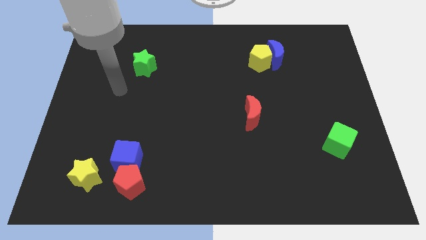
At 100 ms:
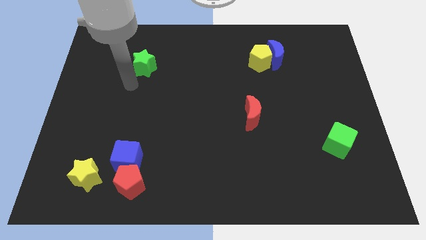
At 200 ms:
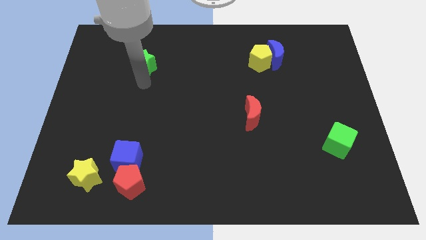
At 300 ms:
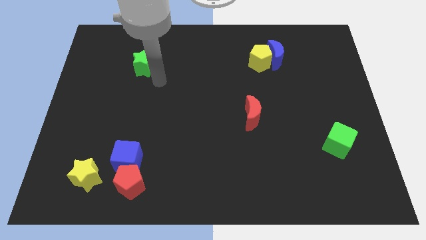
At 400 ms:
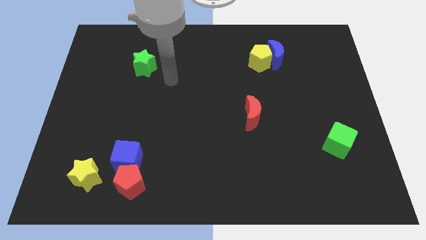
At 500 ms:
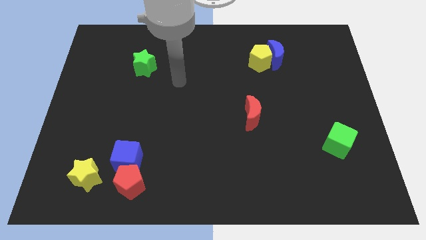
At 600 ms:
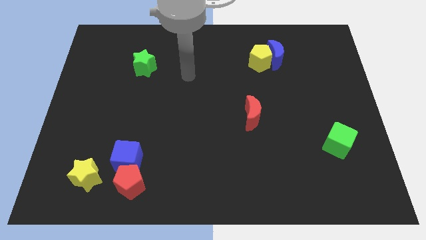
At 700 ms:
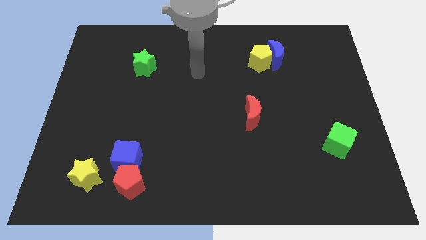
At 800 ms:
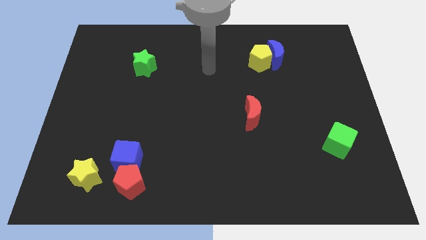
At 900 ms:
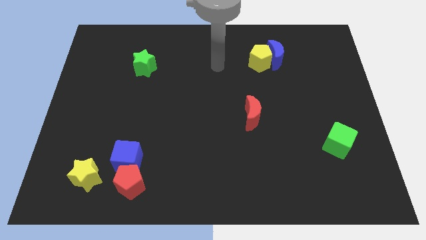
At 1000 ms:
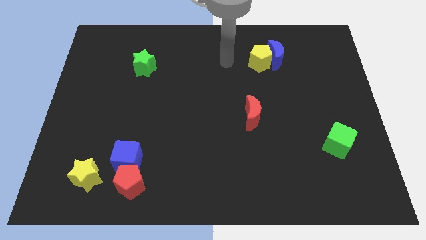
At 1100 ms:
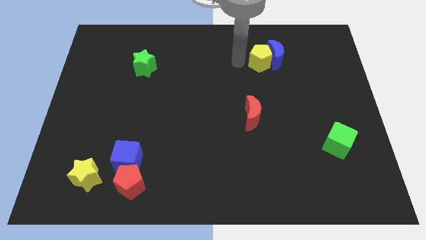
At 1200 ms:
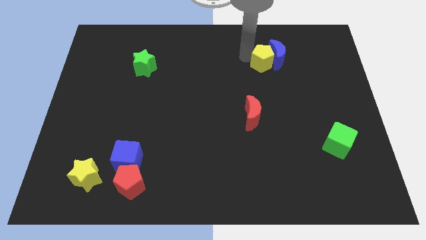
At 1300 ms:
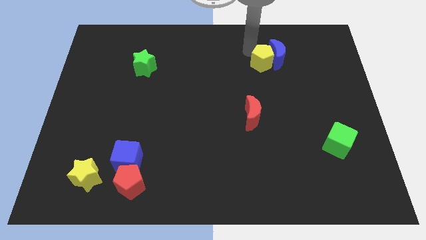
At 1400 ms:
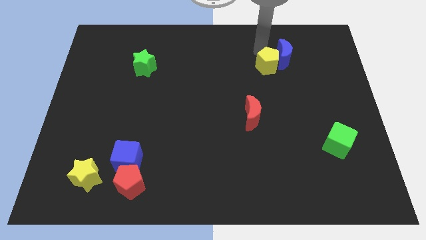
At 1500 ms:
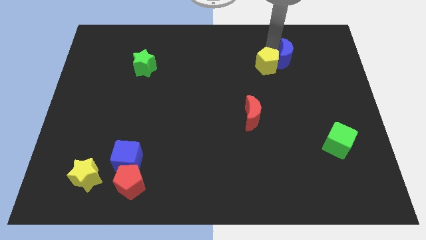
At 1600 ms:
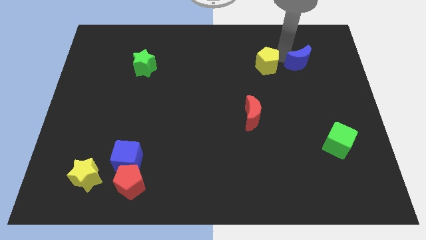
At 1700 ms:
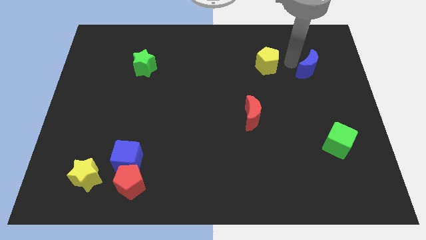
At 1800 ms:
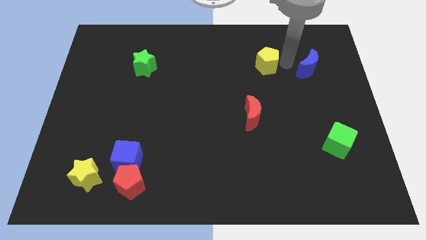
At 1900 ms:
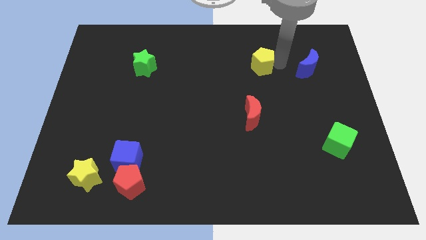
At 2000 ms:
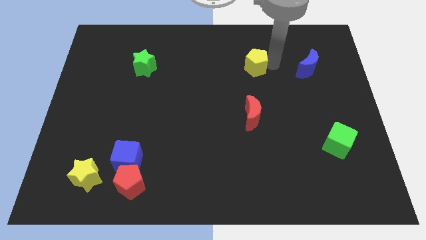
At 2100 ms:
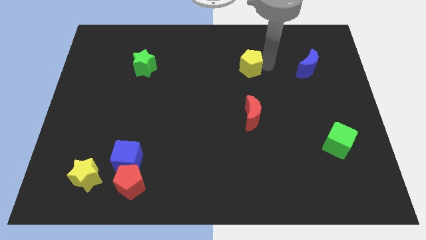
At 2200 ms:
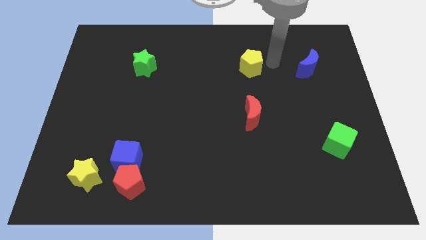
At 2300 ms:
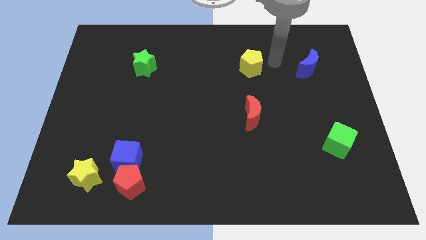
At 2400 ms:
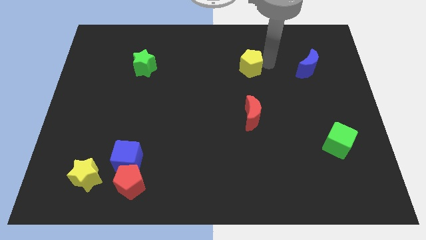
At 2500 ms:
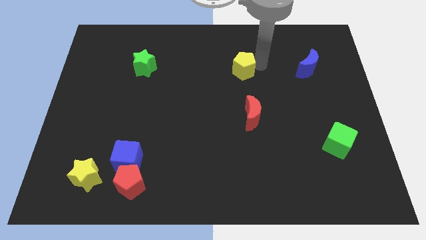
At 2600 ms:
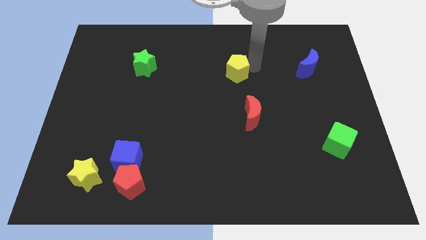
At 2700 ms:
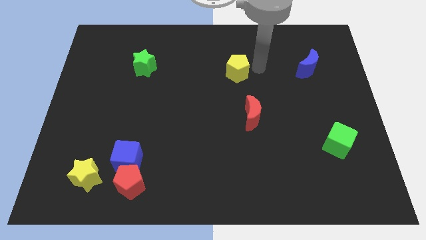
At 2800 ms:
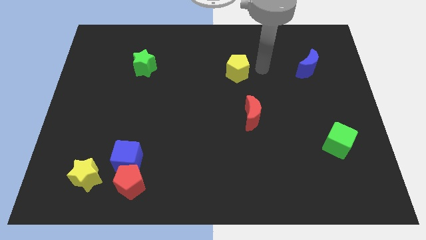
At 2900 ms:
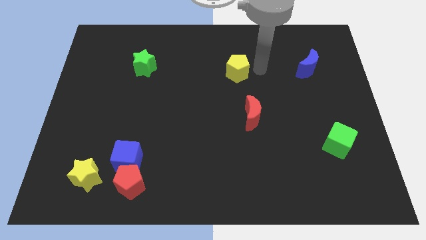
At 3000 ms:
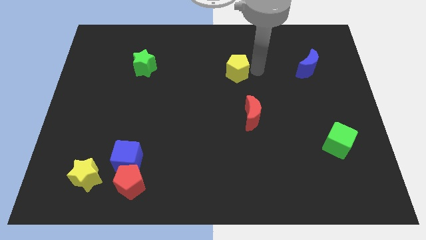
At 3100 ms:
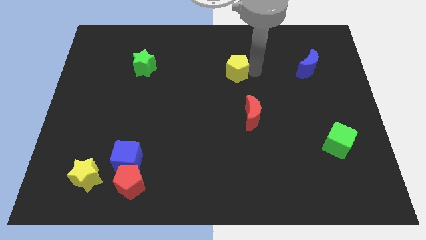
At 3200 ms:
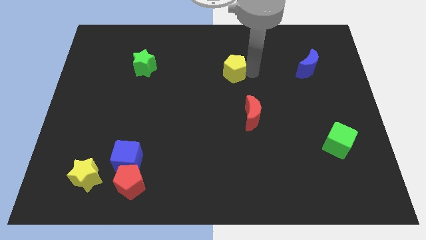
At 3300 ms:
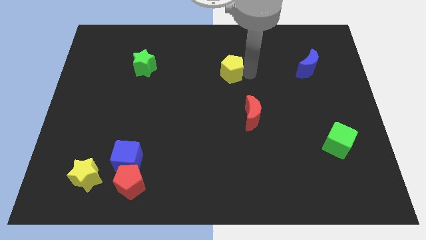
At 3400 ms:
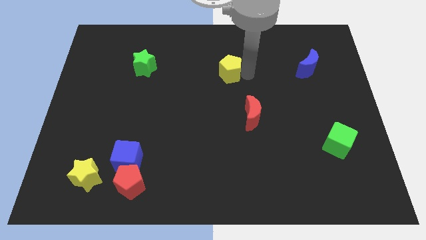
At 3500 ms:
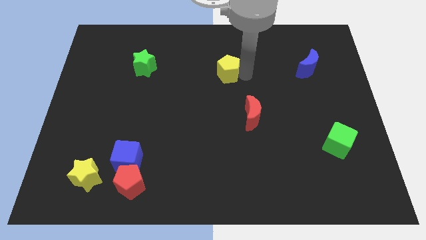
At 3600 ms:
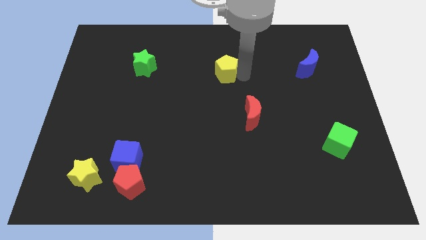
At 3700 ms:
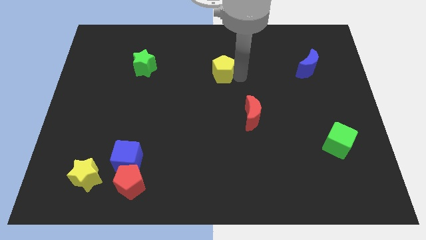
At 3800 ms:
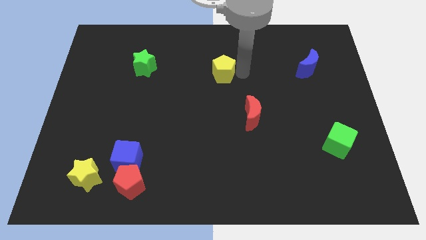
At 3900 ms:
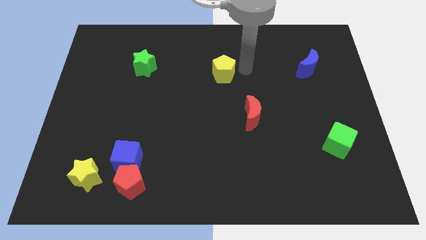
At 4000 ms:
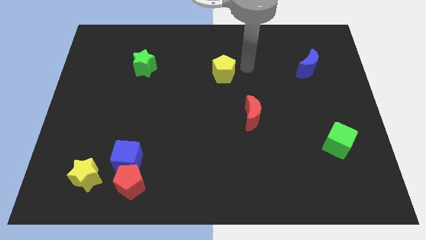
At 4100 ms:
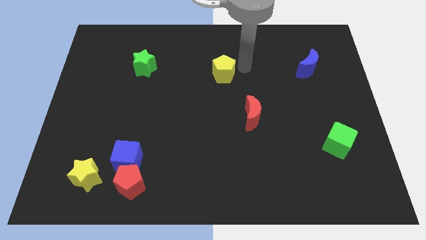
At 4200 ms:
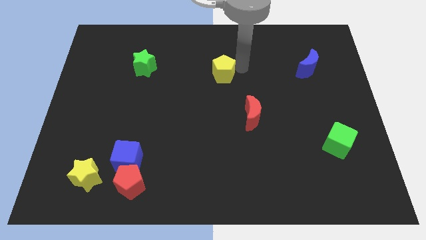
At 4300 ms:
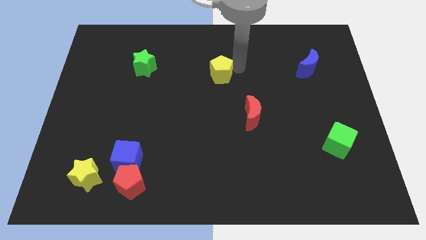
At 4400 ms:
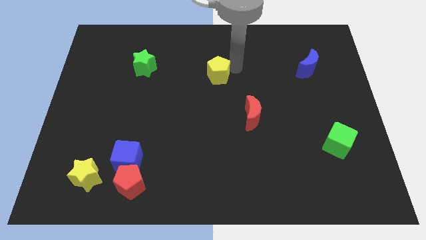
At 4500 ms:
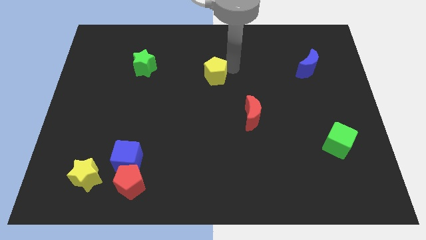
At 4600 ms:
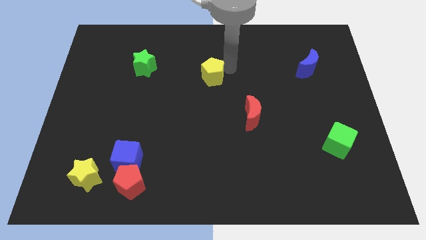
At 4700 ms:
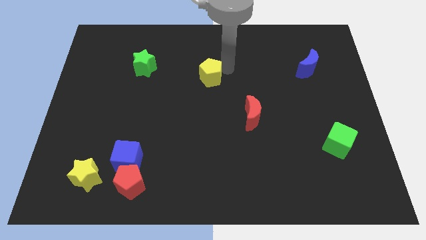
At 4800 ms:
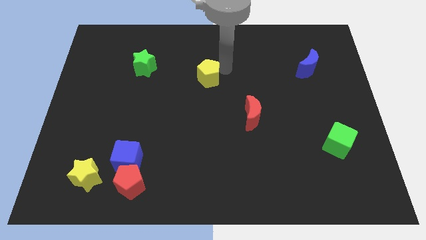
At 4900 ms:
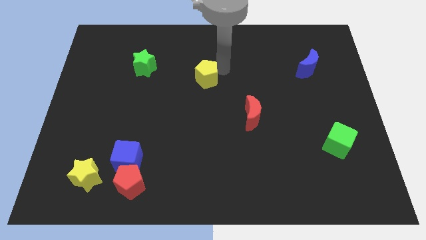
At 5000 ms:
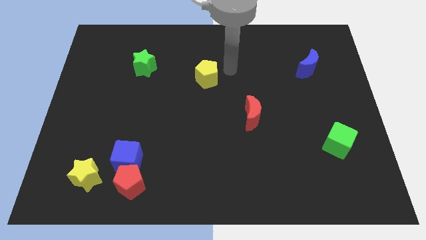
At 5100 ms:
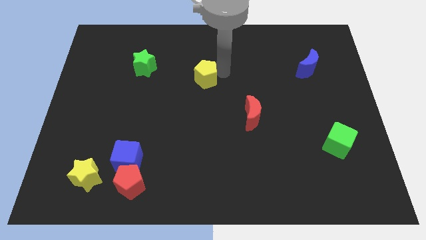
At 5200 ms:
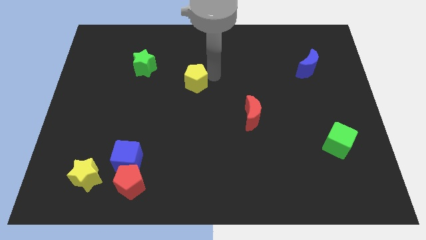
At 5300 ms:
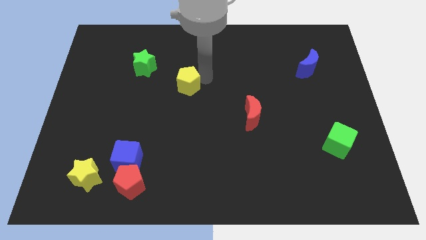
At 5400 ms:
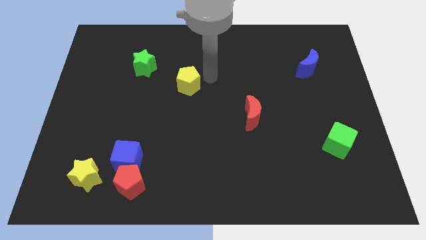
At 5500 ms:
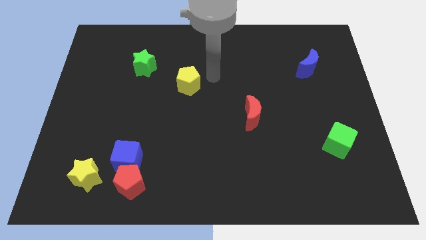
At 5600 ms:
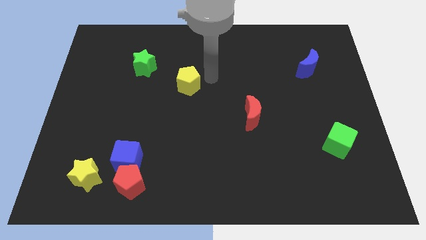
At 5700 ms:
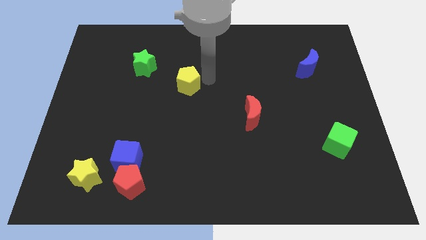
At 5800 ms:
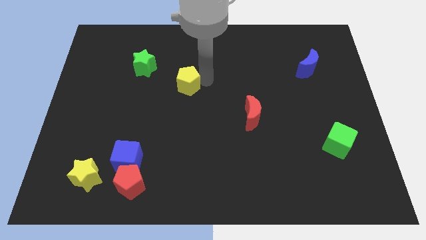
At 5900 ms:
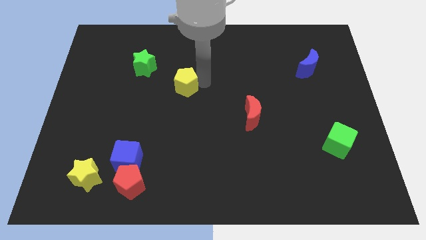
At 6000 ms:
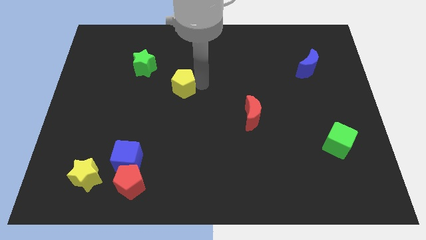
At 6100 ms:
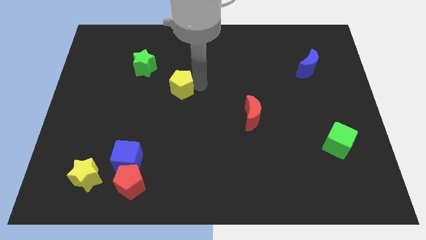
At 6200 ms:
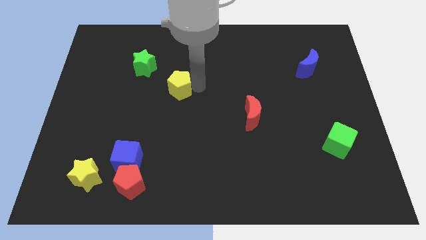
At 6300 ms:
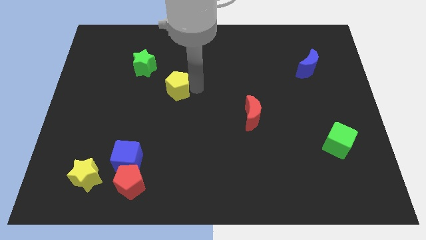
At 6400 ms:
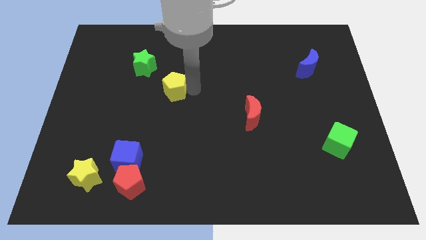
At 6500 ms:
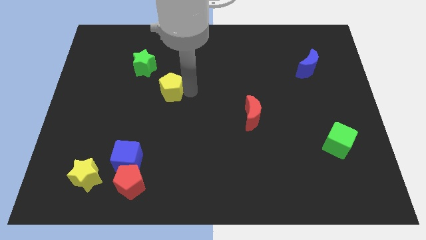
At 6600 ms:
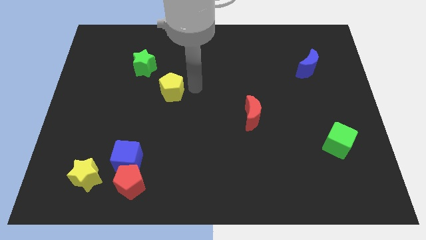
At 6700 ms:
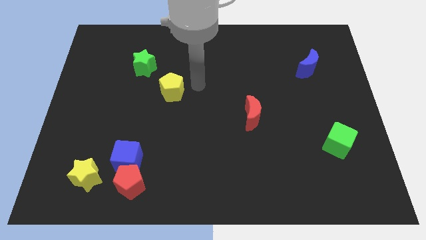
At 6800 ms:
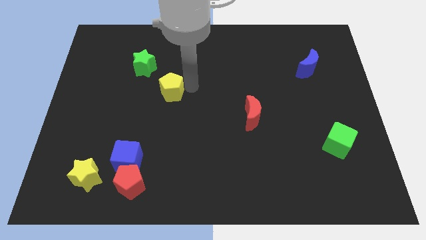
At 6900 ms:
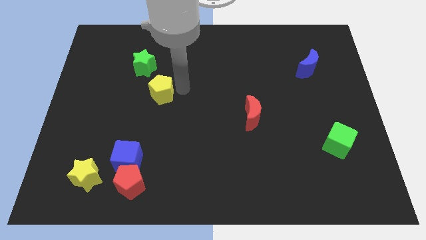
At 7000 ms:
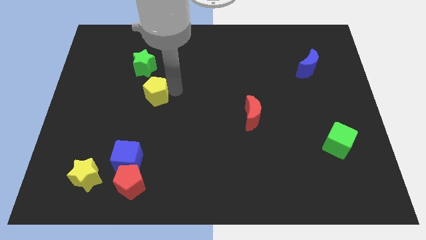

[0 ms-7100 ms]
slide the yellow pentagon below the green star
